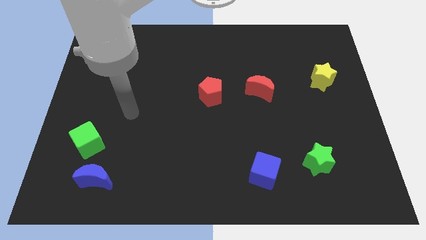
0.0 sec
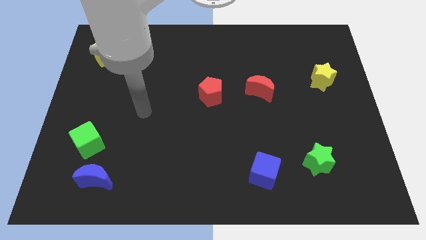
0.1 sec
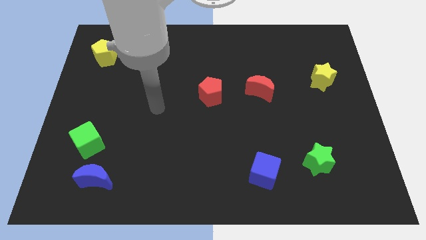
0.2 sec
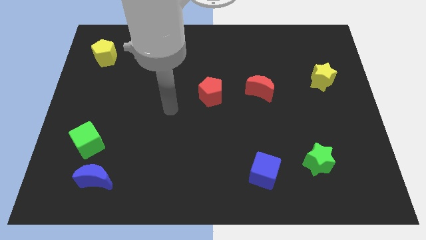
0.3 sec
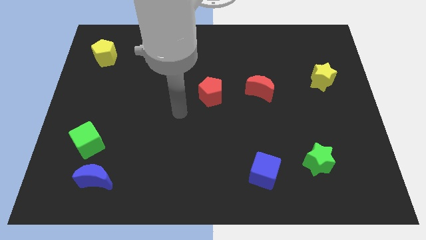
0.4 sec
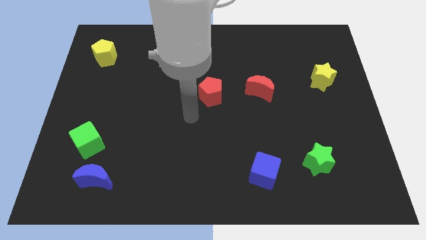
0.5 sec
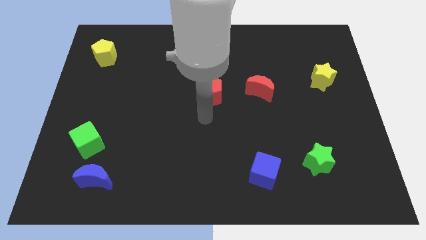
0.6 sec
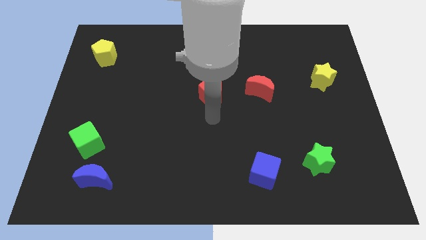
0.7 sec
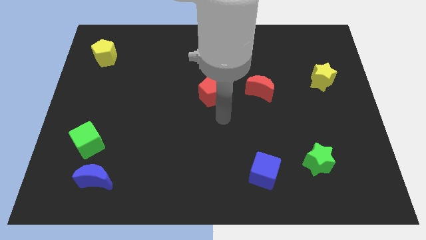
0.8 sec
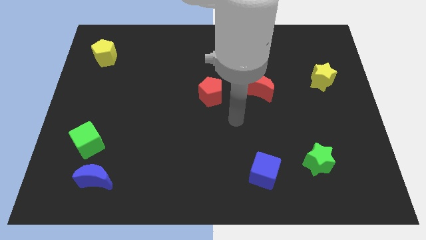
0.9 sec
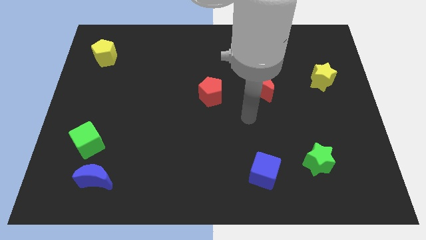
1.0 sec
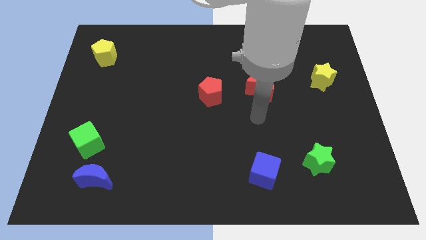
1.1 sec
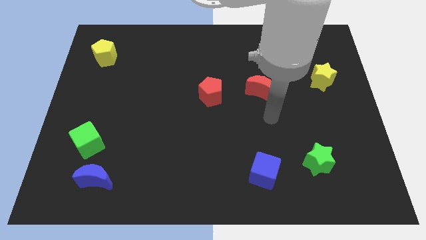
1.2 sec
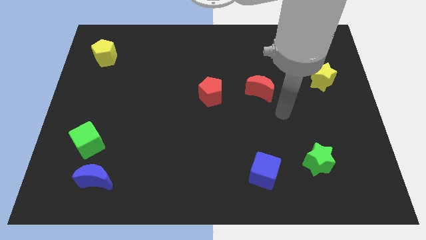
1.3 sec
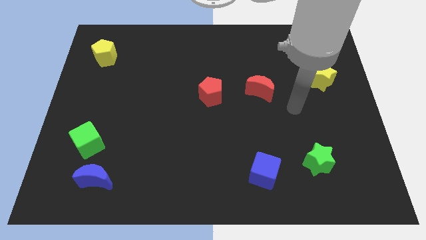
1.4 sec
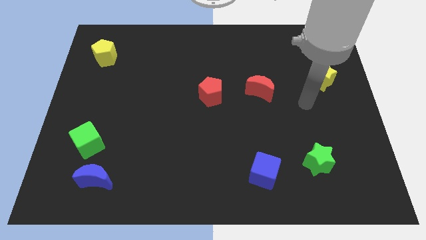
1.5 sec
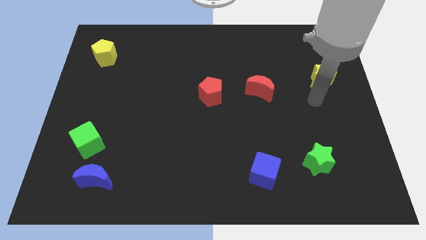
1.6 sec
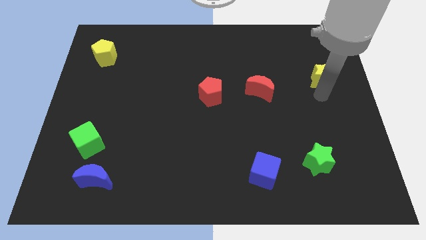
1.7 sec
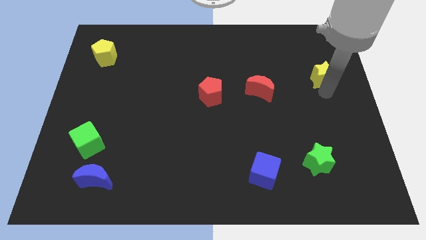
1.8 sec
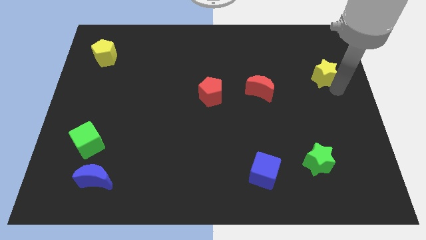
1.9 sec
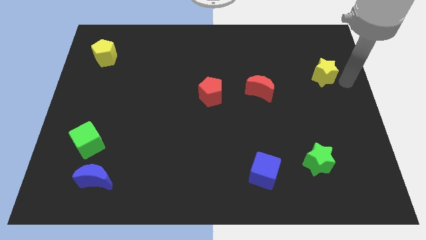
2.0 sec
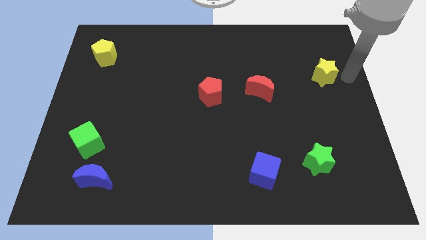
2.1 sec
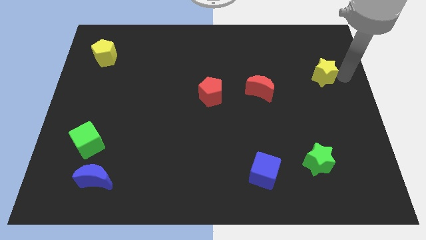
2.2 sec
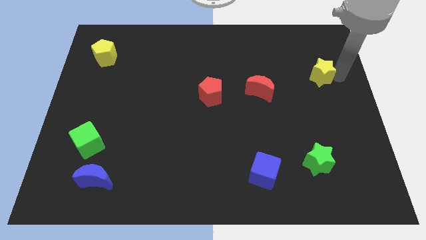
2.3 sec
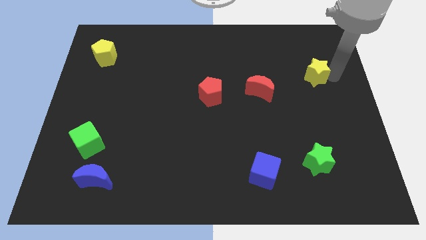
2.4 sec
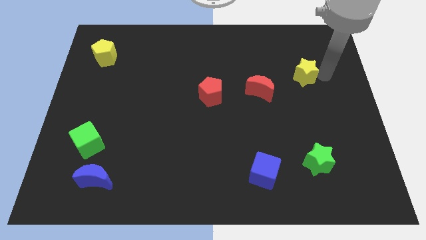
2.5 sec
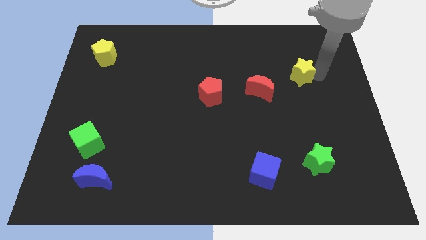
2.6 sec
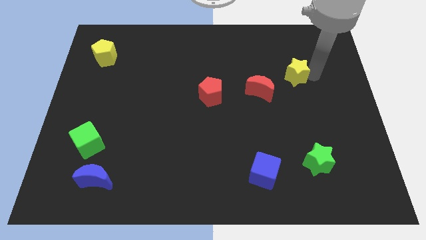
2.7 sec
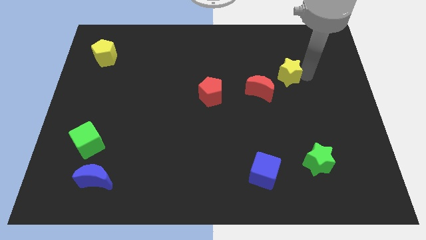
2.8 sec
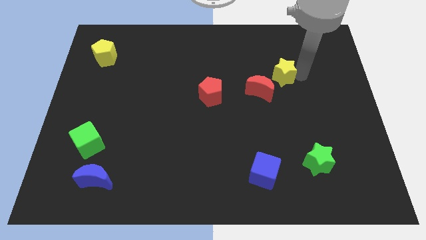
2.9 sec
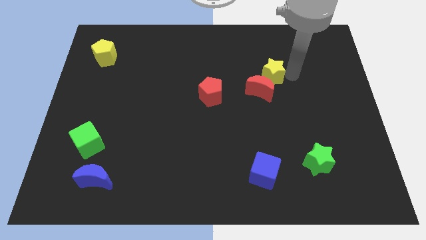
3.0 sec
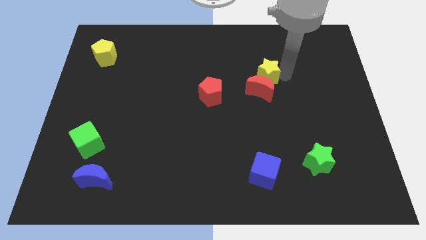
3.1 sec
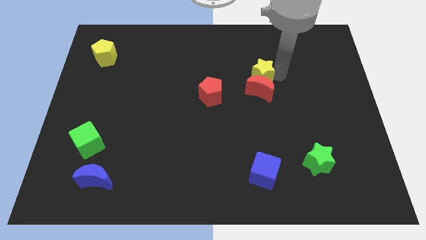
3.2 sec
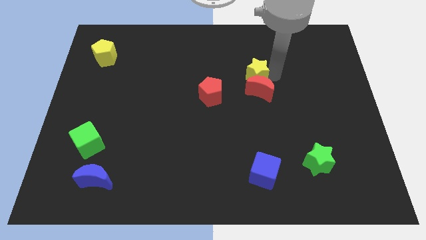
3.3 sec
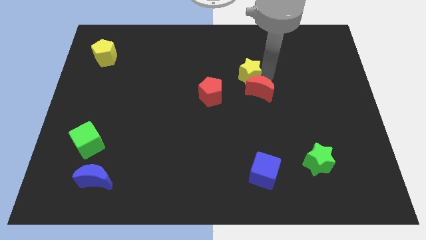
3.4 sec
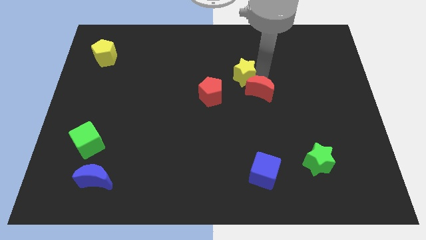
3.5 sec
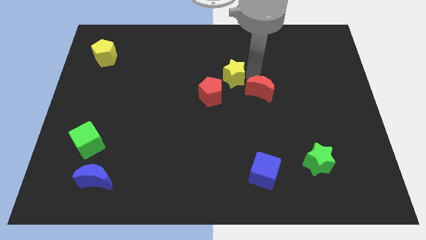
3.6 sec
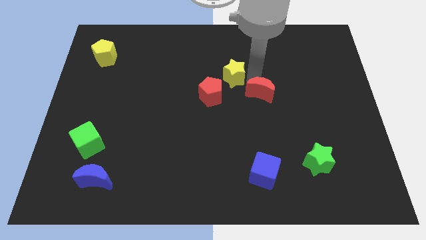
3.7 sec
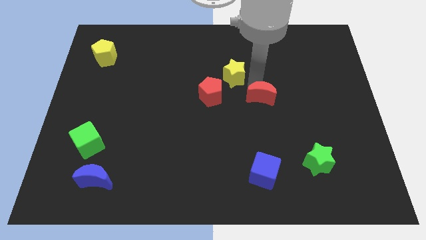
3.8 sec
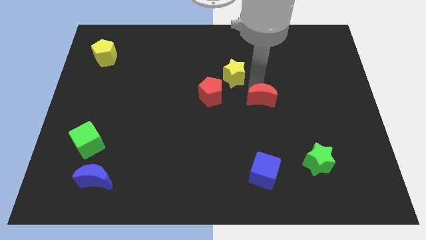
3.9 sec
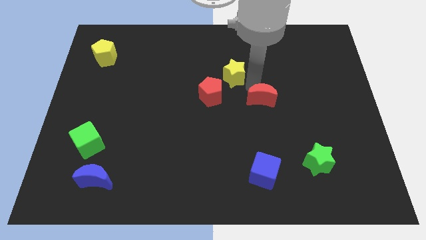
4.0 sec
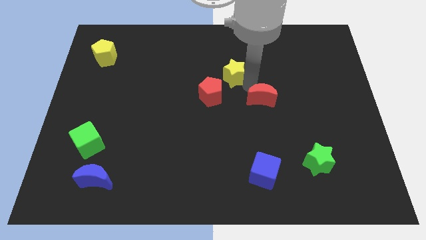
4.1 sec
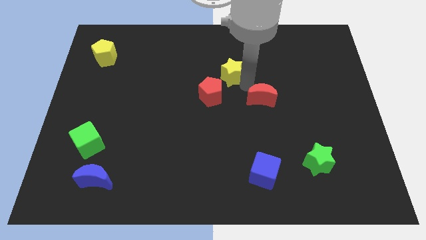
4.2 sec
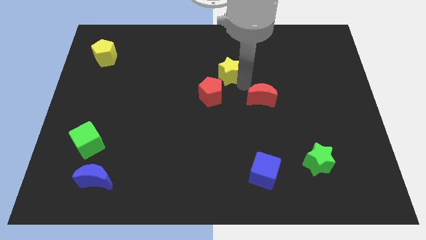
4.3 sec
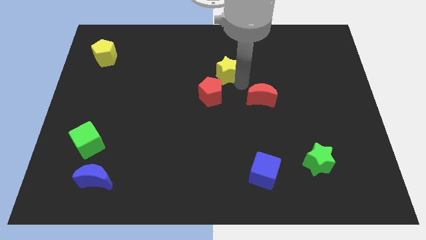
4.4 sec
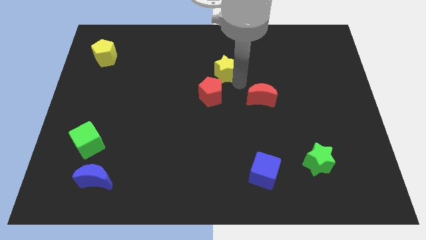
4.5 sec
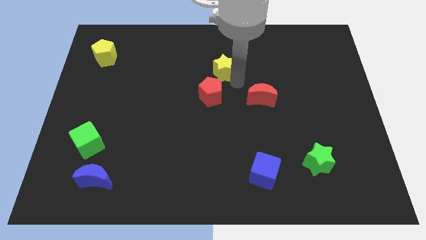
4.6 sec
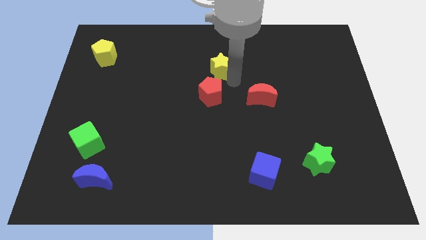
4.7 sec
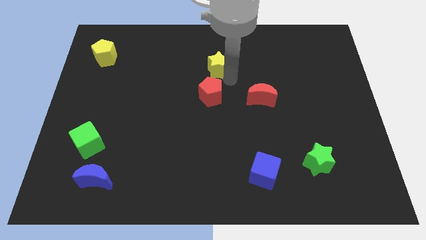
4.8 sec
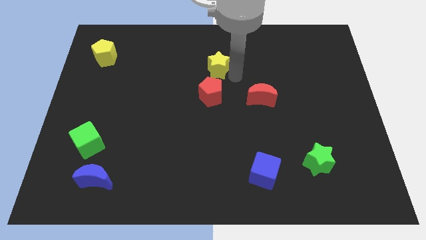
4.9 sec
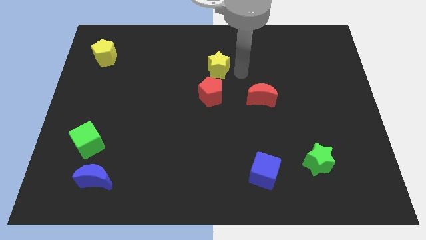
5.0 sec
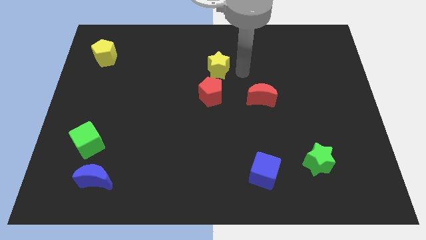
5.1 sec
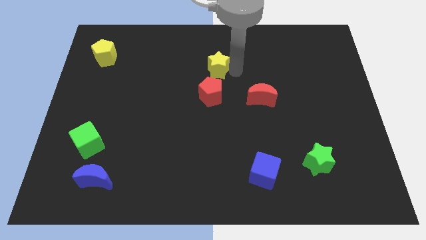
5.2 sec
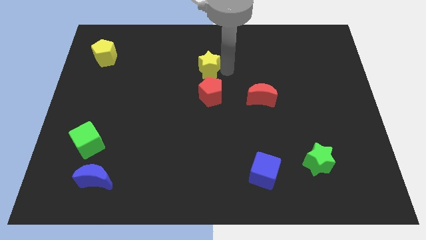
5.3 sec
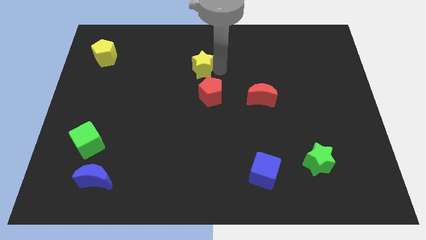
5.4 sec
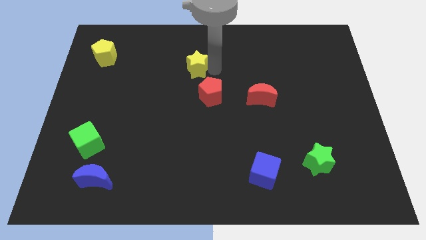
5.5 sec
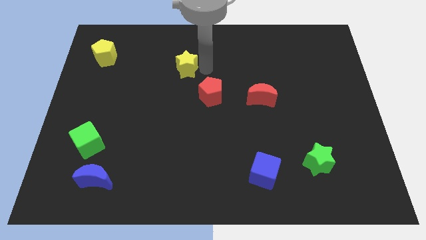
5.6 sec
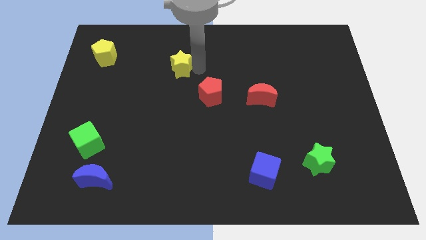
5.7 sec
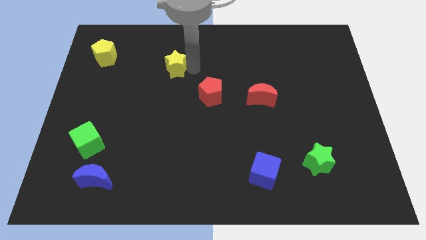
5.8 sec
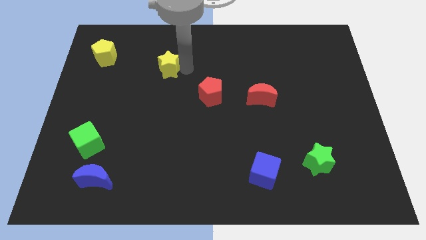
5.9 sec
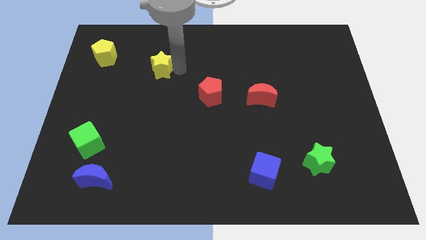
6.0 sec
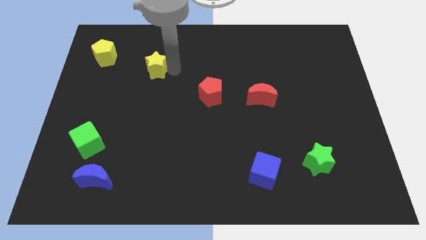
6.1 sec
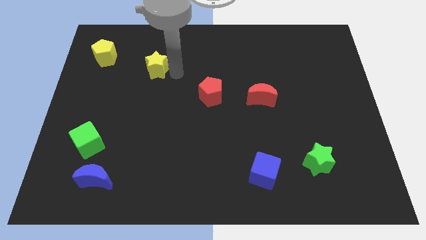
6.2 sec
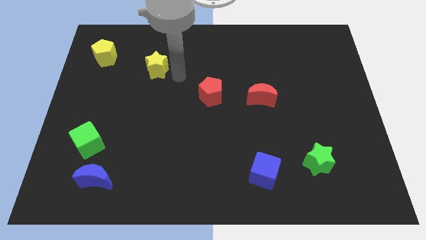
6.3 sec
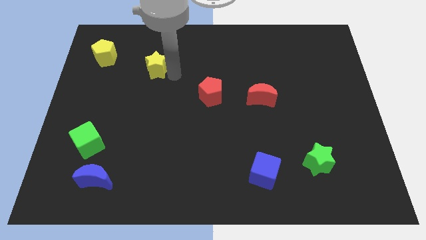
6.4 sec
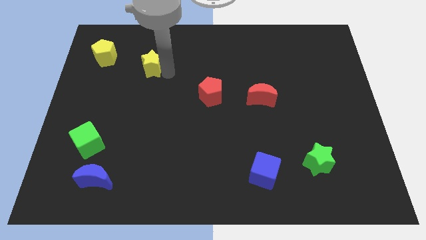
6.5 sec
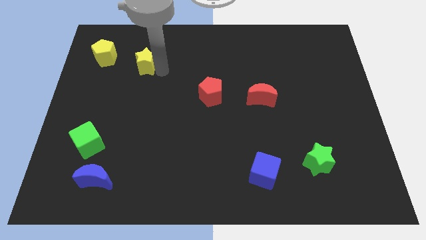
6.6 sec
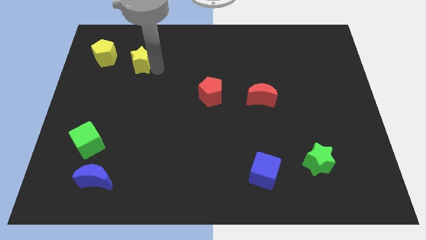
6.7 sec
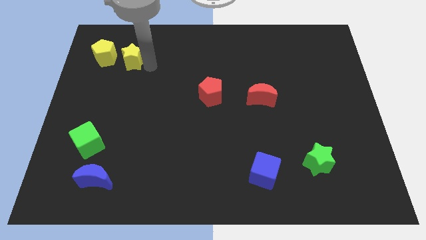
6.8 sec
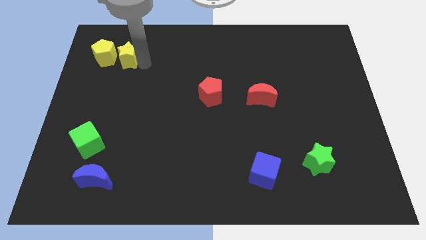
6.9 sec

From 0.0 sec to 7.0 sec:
slide the yellow star to the yellow pentagon

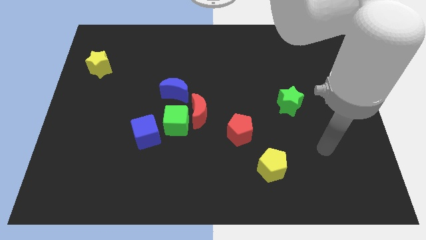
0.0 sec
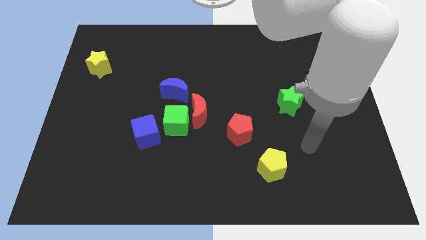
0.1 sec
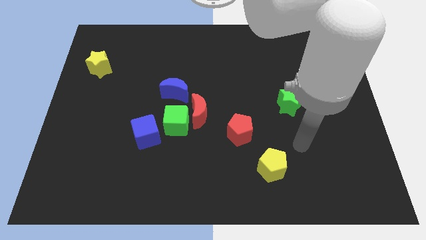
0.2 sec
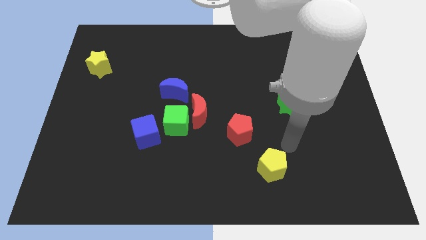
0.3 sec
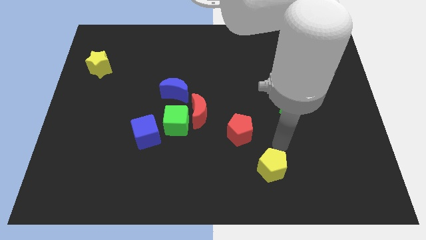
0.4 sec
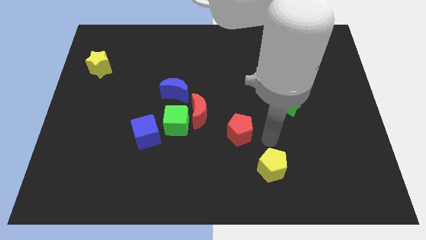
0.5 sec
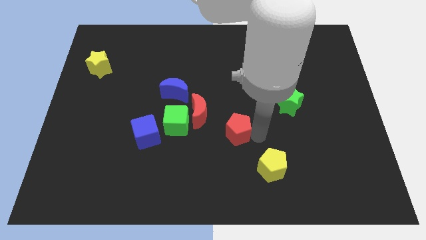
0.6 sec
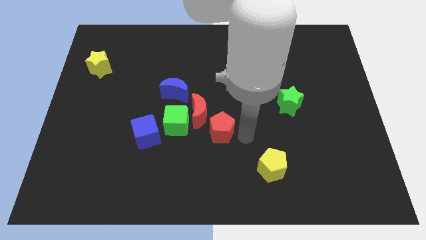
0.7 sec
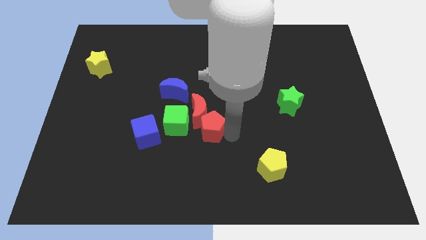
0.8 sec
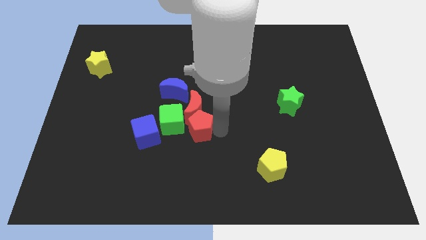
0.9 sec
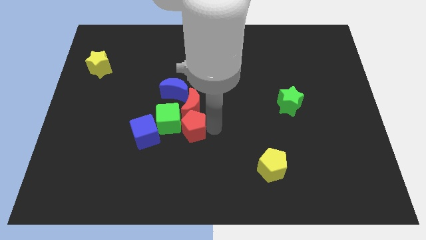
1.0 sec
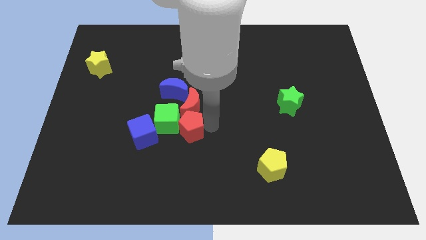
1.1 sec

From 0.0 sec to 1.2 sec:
move the red moon close to the blue moon
